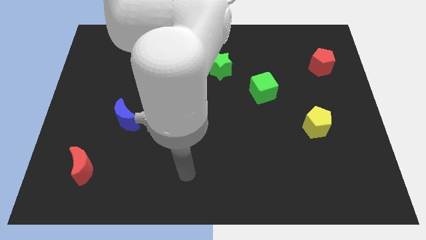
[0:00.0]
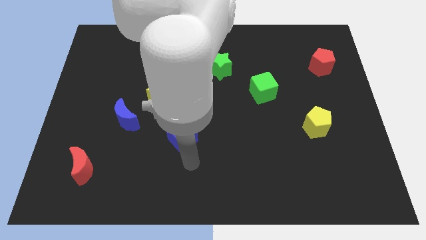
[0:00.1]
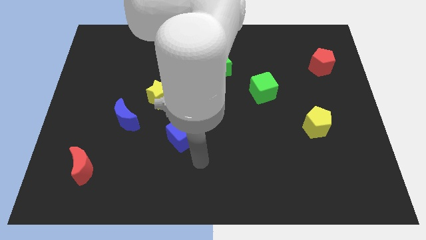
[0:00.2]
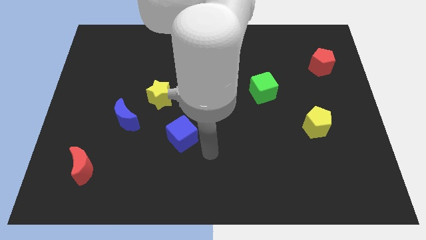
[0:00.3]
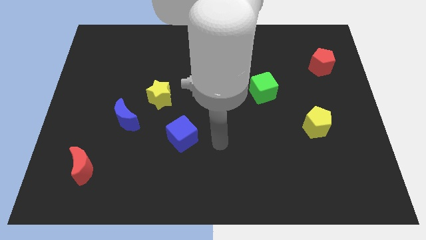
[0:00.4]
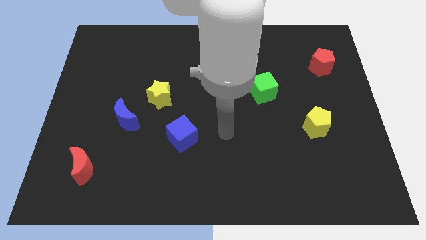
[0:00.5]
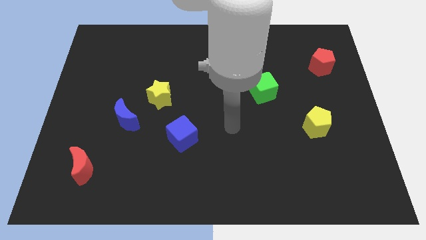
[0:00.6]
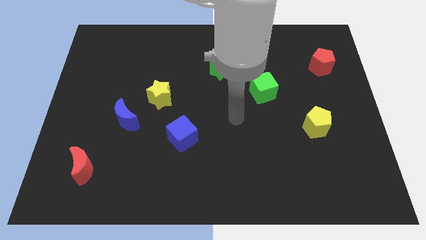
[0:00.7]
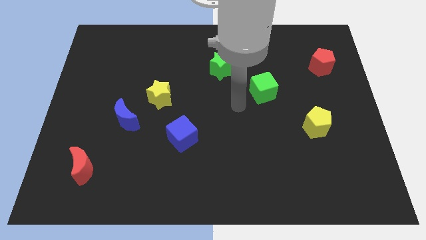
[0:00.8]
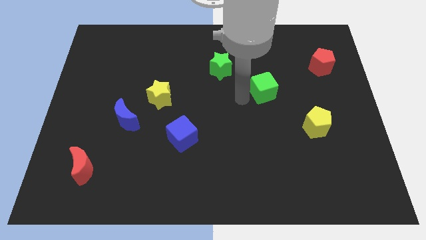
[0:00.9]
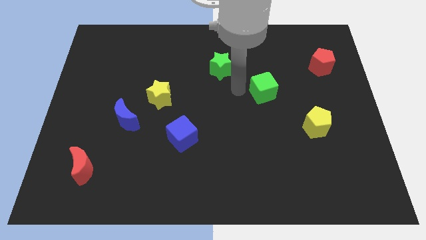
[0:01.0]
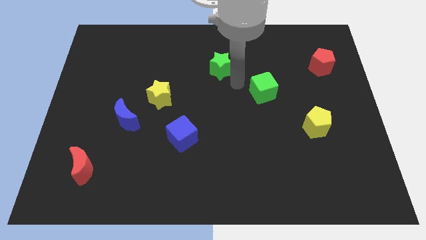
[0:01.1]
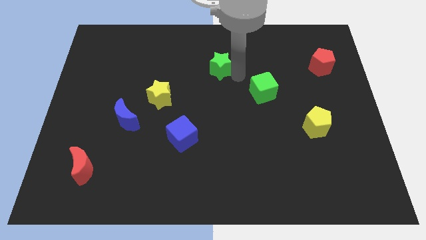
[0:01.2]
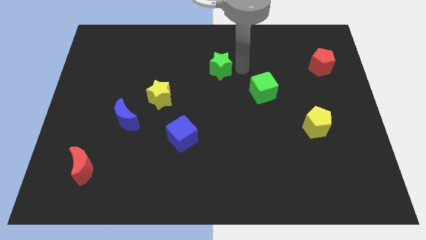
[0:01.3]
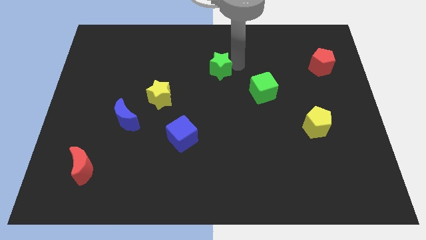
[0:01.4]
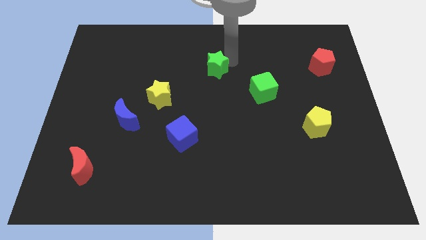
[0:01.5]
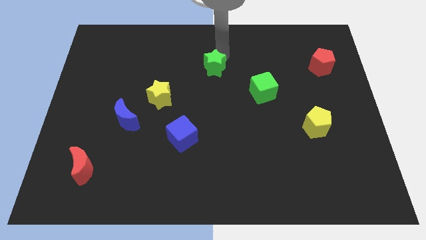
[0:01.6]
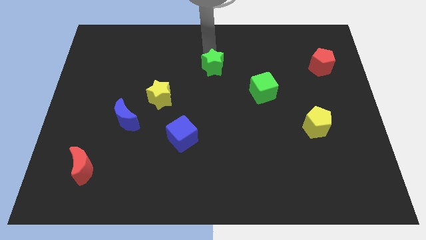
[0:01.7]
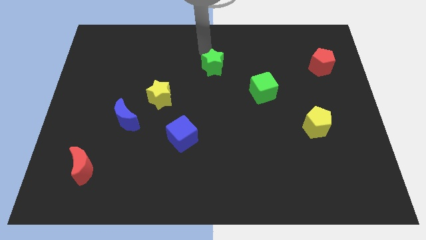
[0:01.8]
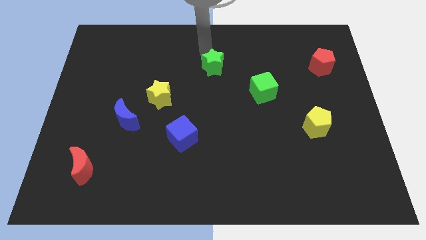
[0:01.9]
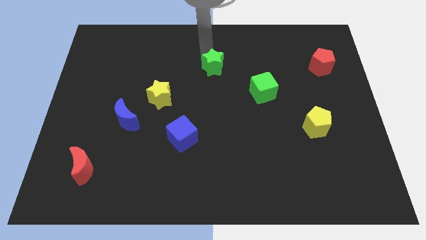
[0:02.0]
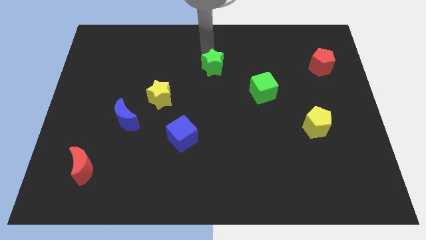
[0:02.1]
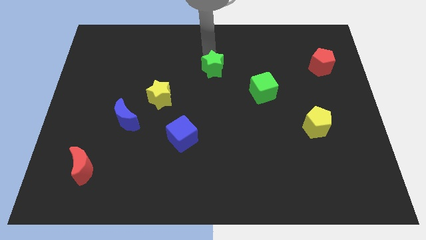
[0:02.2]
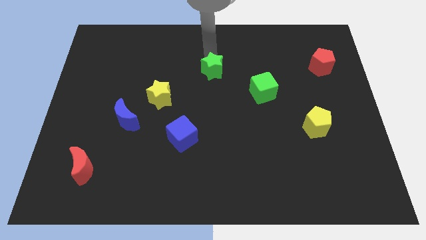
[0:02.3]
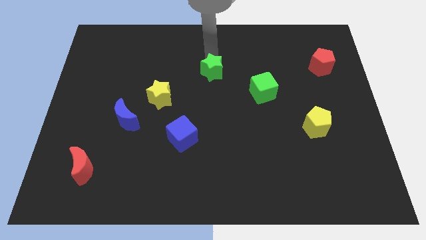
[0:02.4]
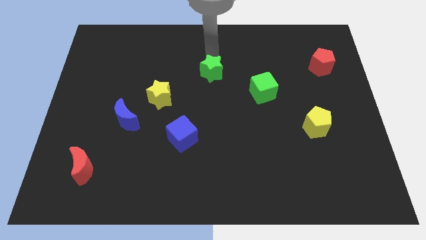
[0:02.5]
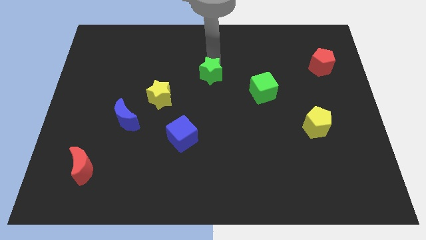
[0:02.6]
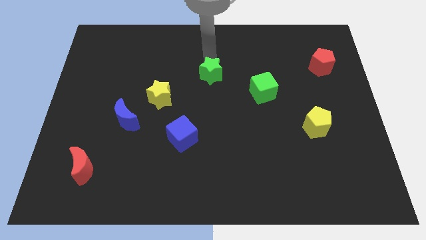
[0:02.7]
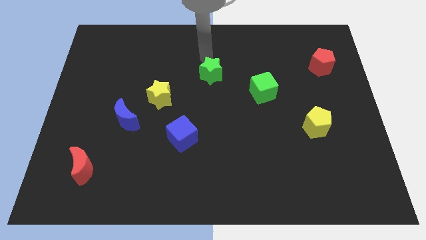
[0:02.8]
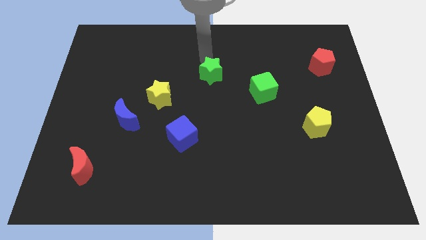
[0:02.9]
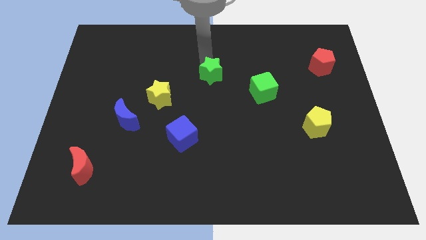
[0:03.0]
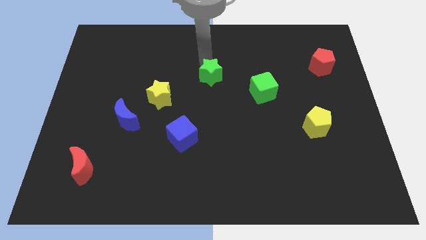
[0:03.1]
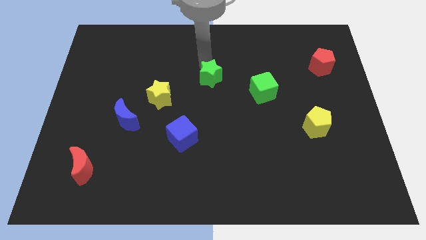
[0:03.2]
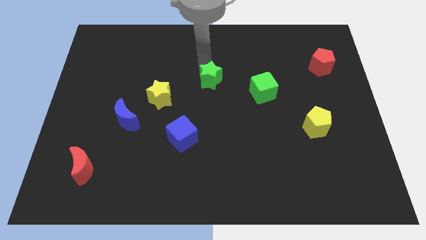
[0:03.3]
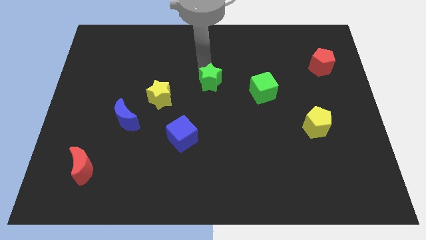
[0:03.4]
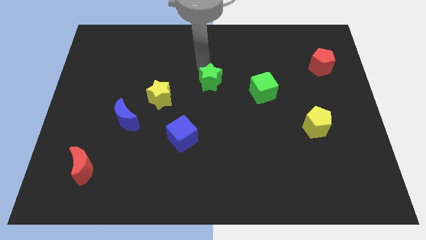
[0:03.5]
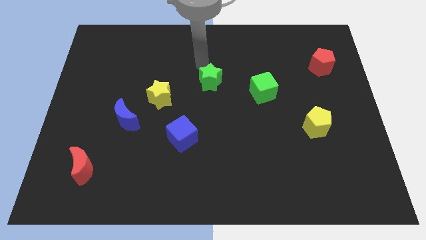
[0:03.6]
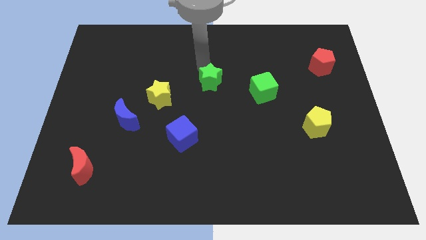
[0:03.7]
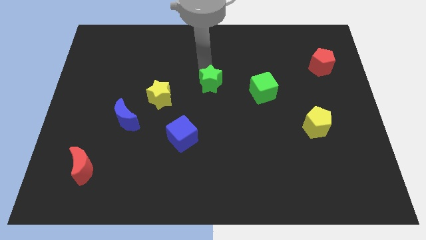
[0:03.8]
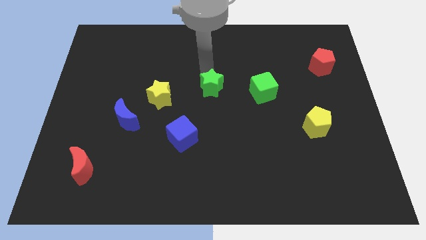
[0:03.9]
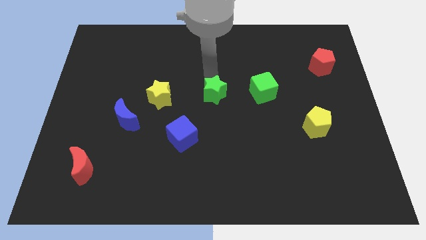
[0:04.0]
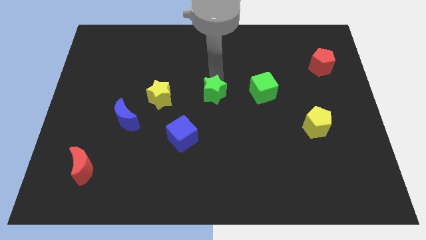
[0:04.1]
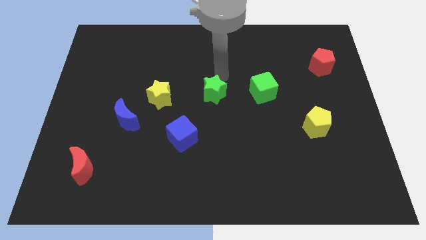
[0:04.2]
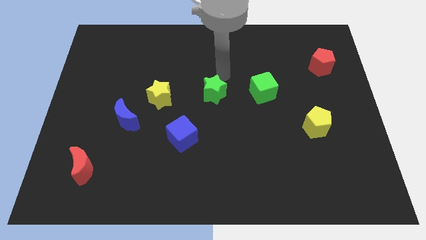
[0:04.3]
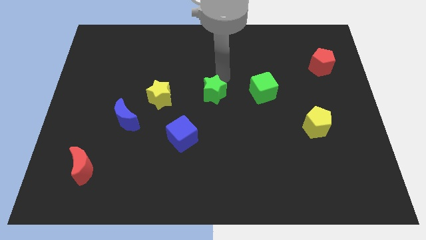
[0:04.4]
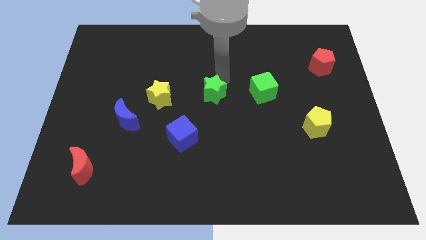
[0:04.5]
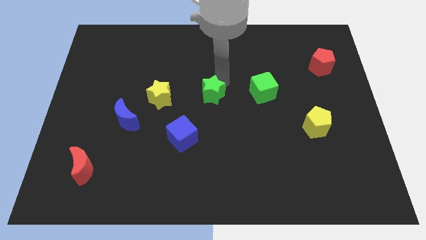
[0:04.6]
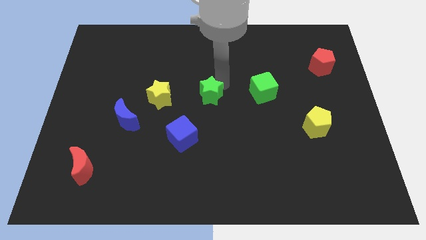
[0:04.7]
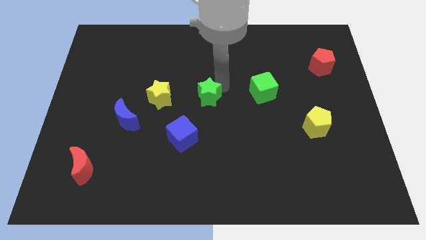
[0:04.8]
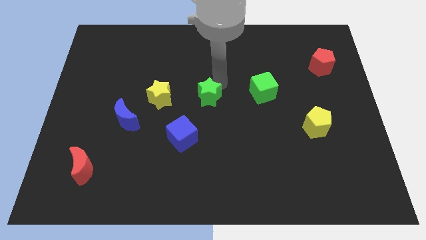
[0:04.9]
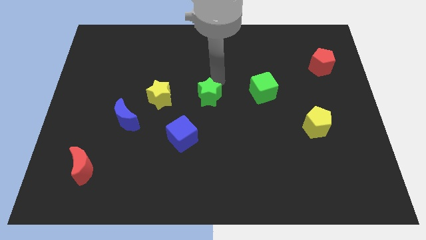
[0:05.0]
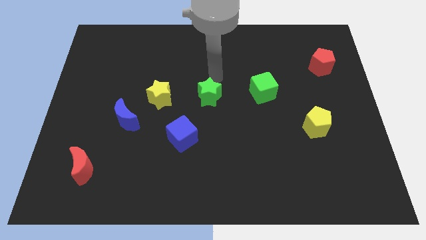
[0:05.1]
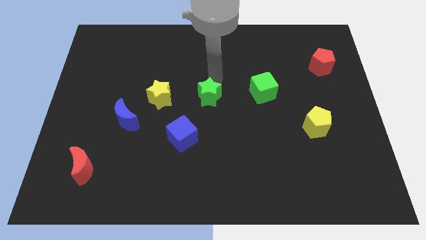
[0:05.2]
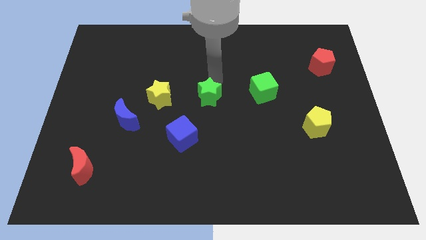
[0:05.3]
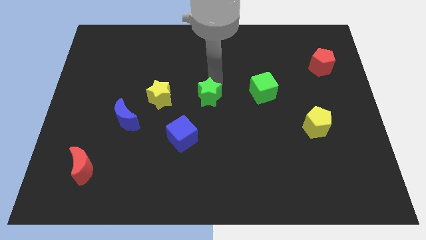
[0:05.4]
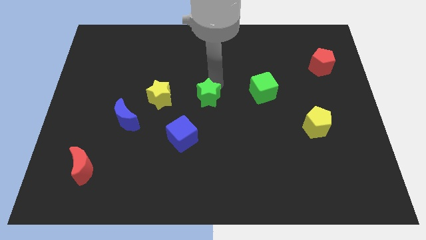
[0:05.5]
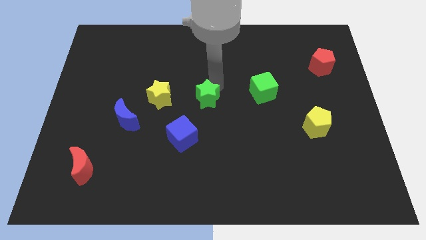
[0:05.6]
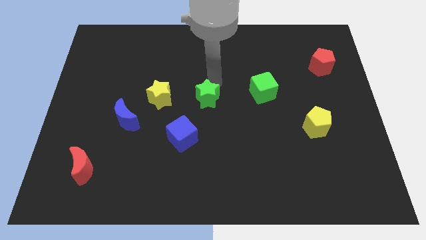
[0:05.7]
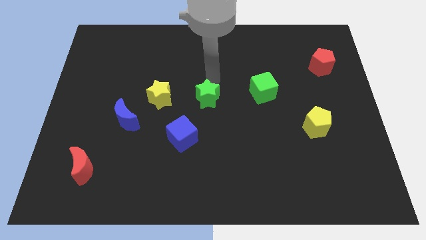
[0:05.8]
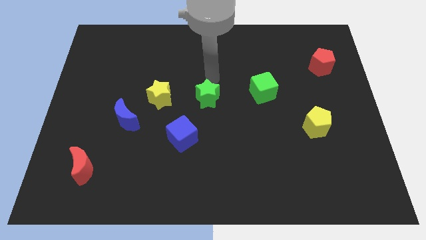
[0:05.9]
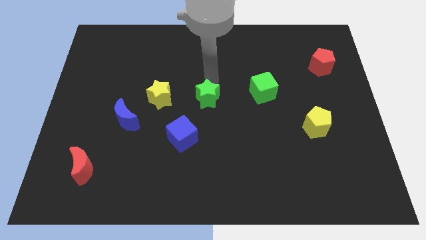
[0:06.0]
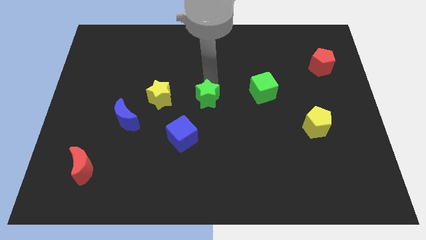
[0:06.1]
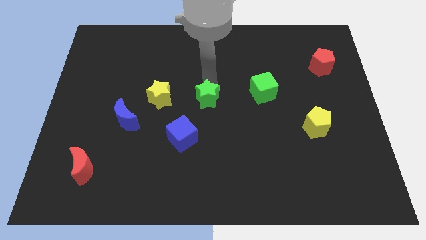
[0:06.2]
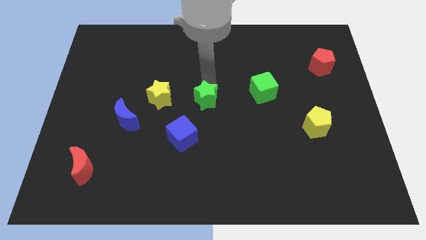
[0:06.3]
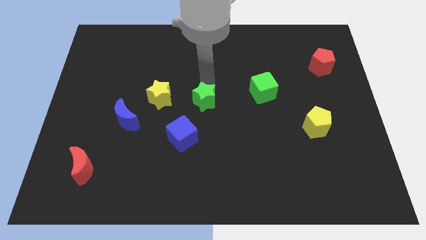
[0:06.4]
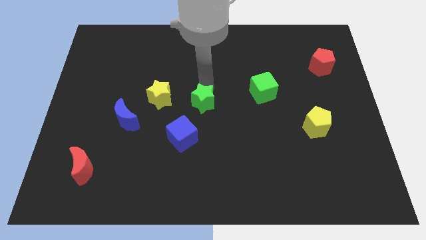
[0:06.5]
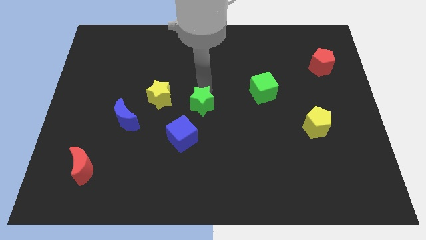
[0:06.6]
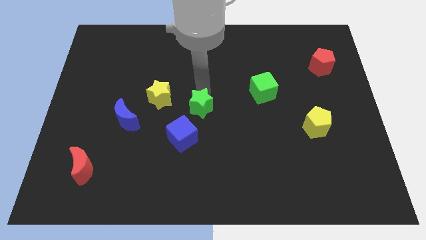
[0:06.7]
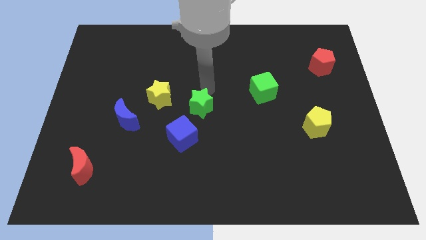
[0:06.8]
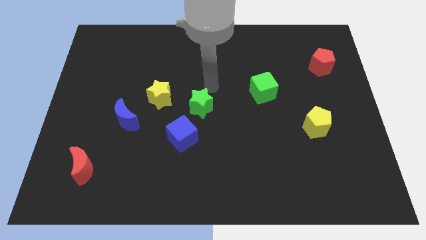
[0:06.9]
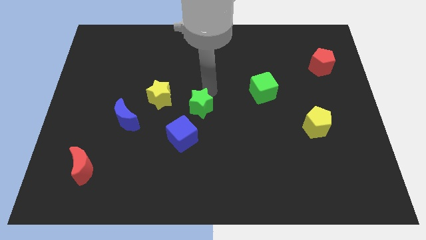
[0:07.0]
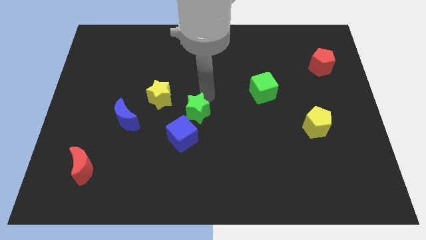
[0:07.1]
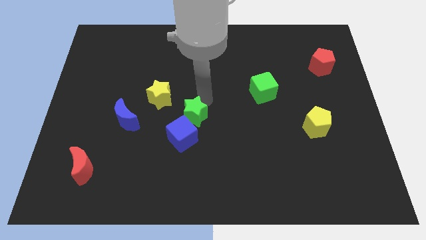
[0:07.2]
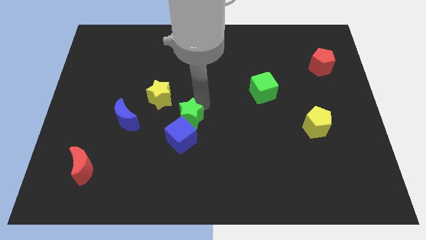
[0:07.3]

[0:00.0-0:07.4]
slide the green star close to the blue cube
